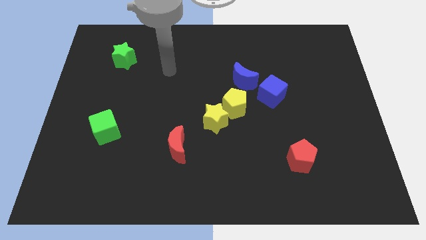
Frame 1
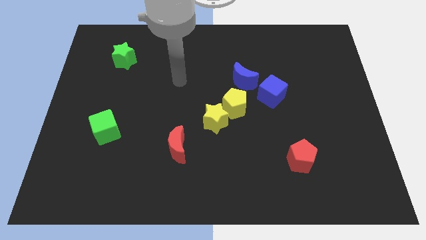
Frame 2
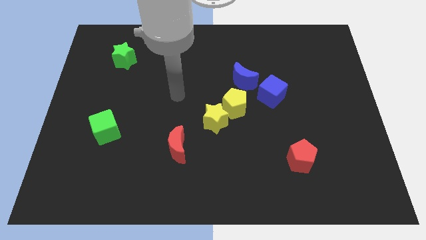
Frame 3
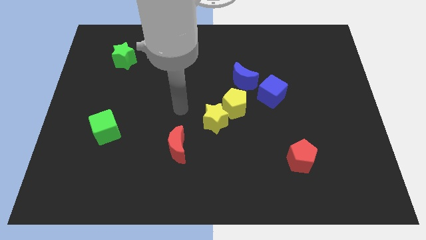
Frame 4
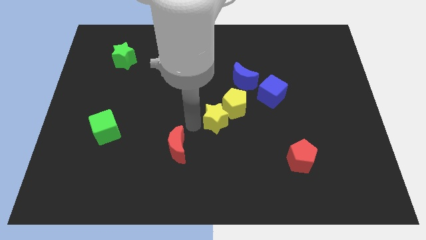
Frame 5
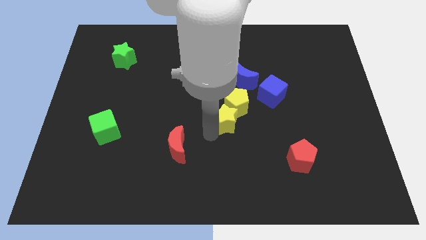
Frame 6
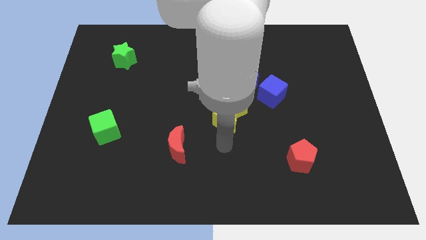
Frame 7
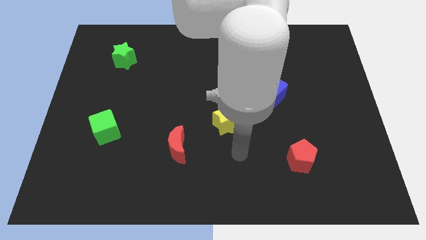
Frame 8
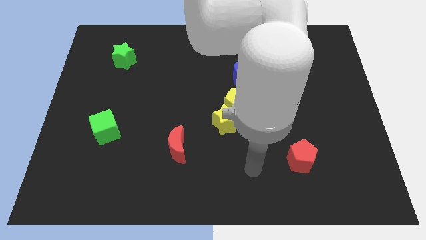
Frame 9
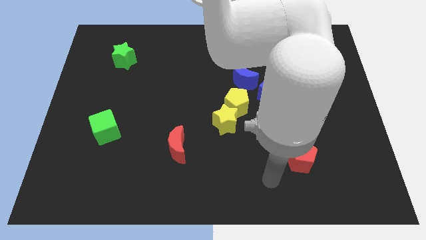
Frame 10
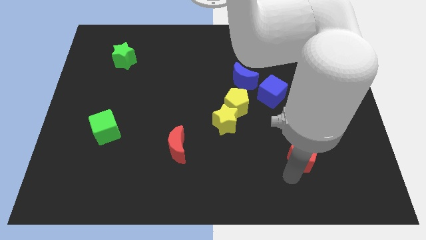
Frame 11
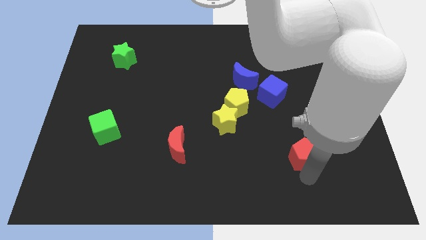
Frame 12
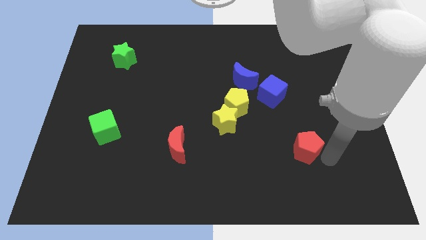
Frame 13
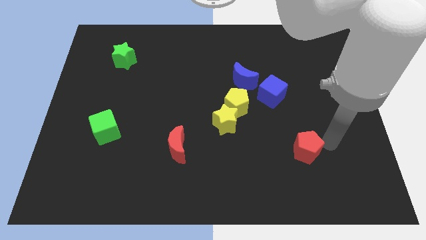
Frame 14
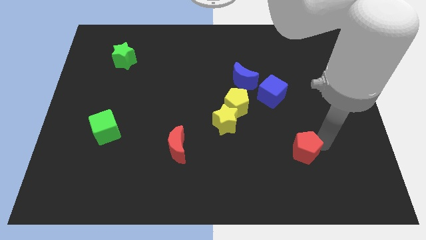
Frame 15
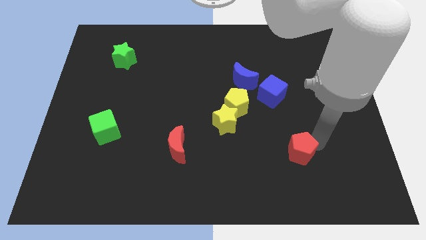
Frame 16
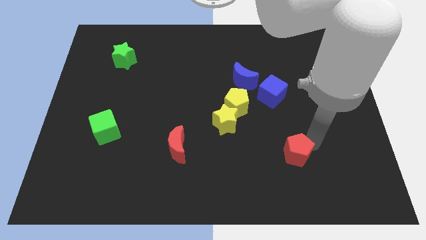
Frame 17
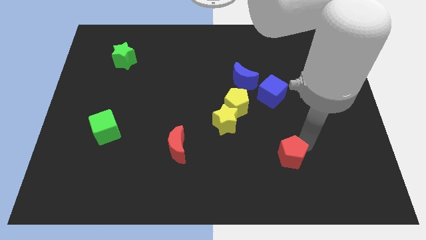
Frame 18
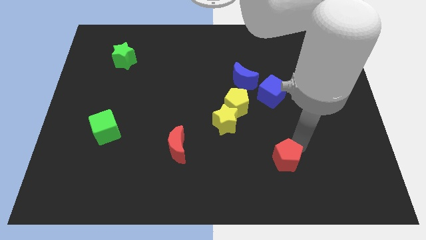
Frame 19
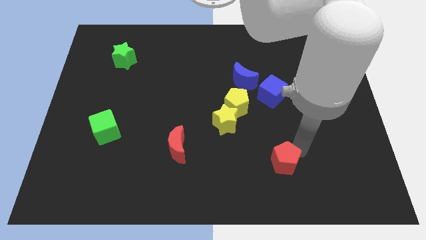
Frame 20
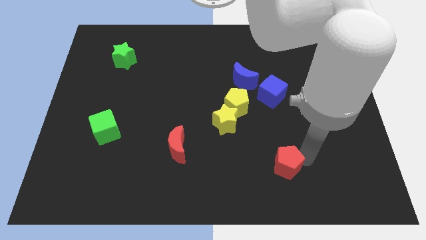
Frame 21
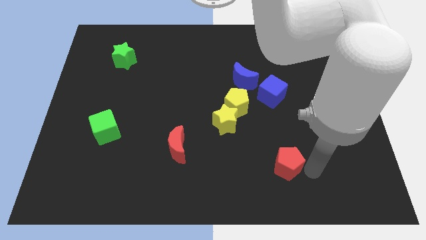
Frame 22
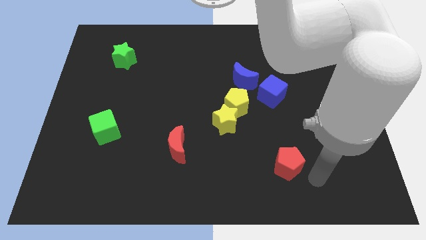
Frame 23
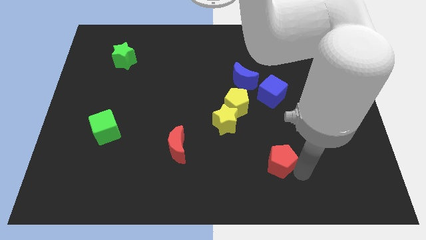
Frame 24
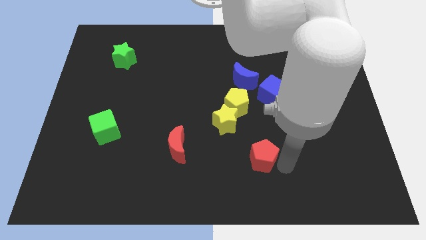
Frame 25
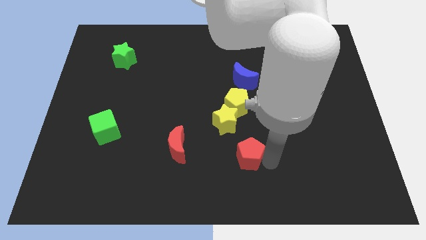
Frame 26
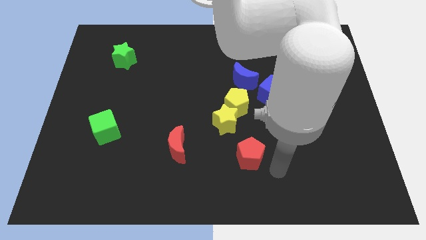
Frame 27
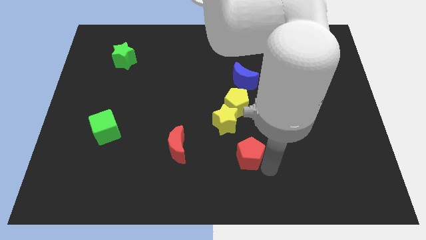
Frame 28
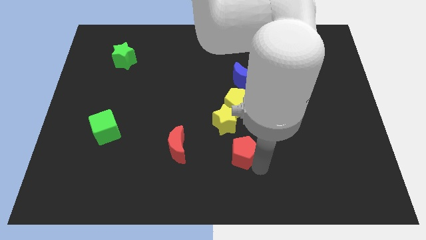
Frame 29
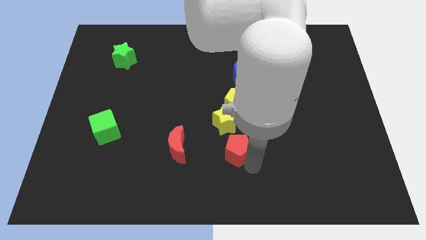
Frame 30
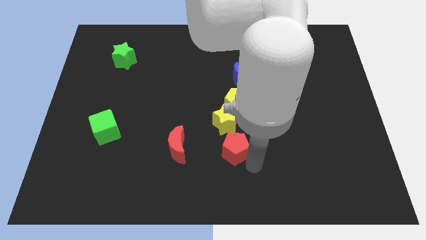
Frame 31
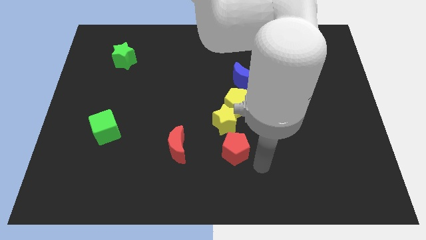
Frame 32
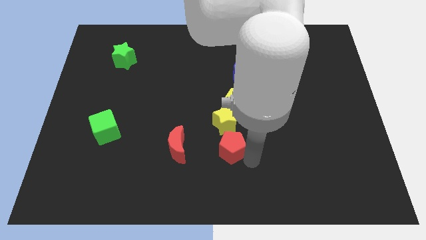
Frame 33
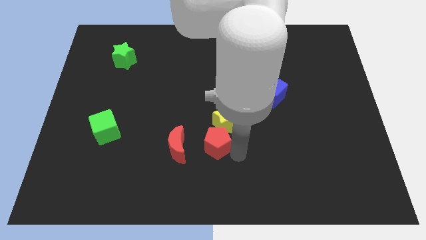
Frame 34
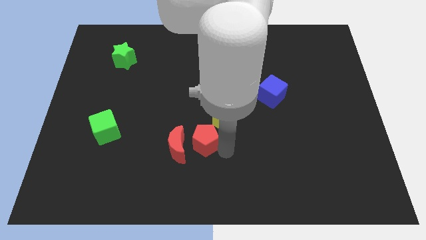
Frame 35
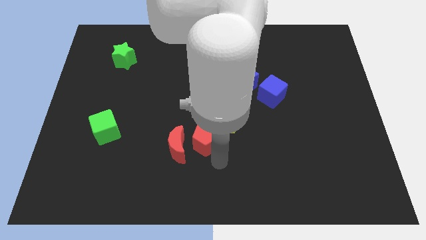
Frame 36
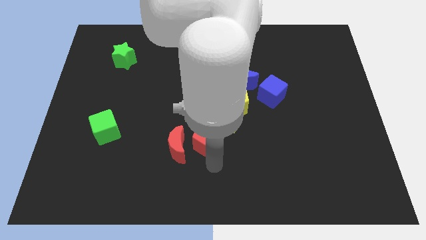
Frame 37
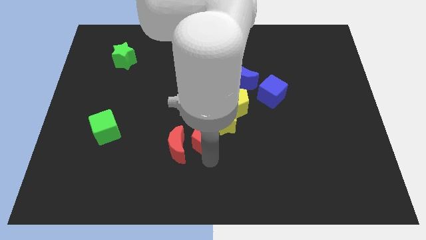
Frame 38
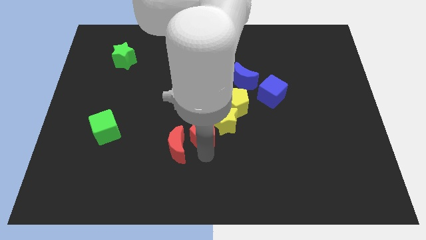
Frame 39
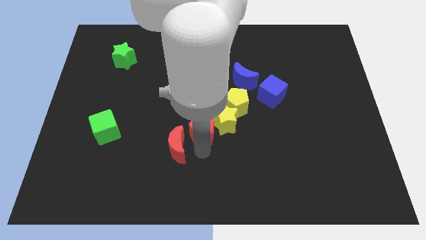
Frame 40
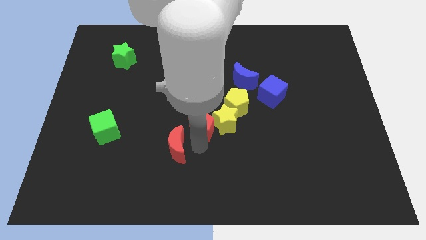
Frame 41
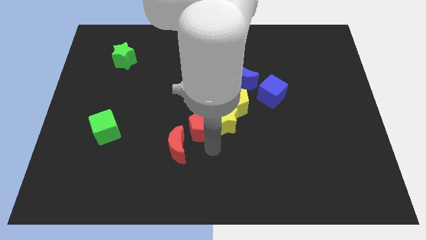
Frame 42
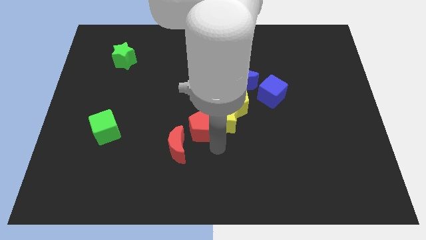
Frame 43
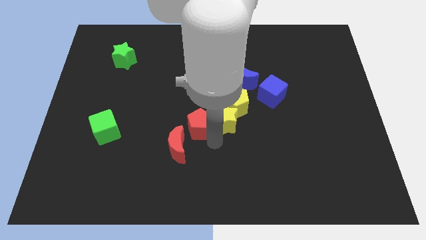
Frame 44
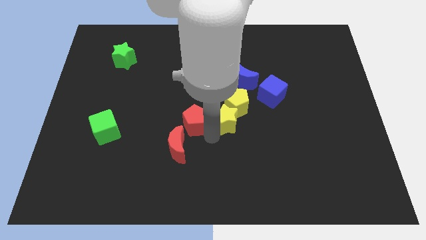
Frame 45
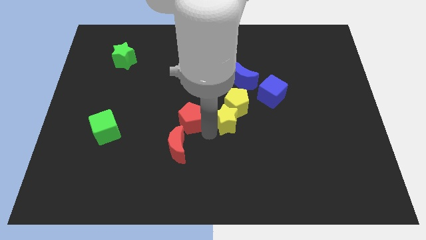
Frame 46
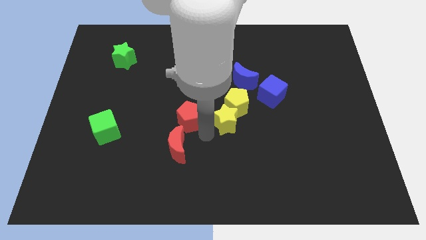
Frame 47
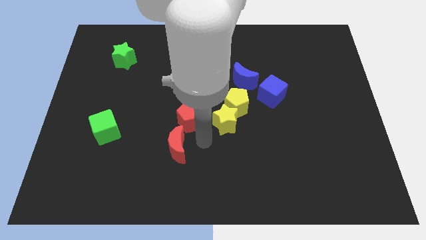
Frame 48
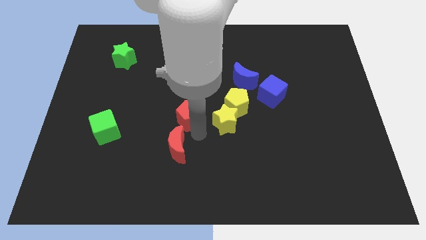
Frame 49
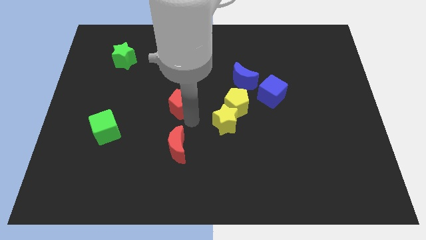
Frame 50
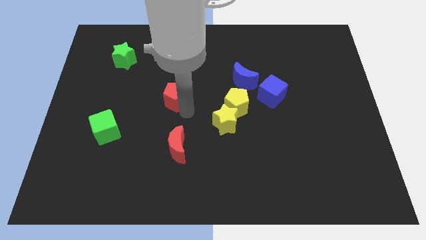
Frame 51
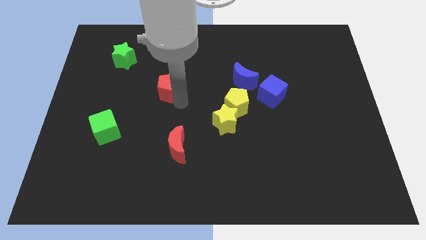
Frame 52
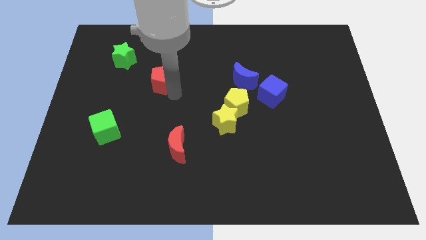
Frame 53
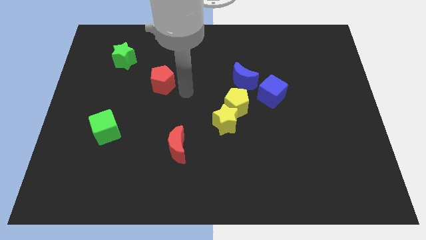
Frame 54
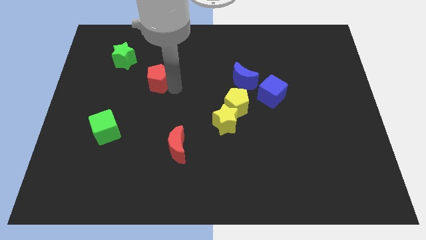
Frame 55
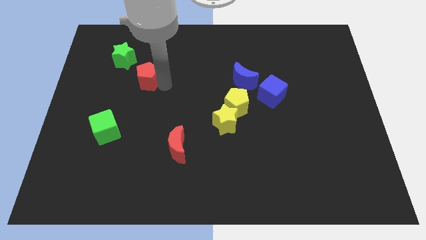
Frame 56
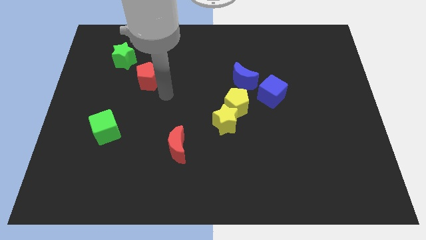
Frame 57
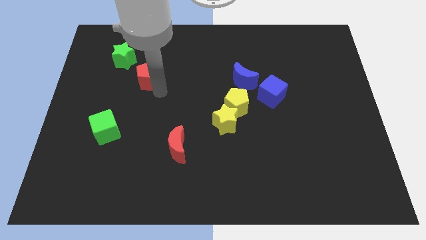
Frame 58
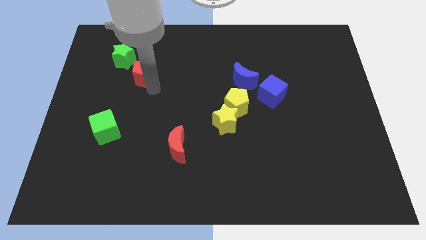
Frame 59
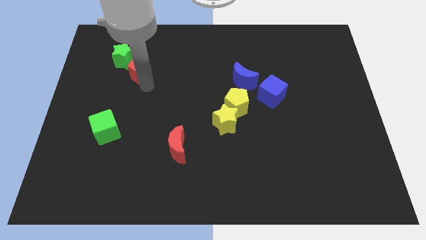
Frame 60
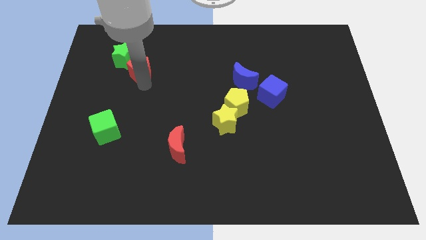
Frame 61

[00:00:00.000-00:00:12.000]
move the red pentagon close to the green star

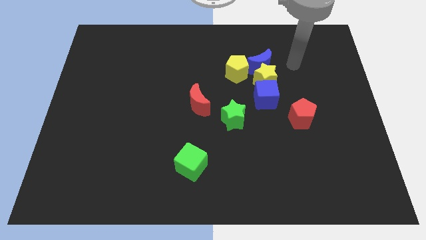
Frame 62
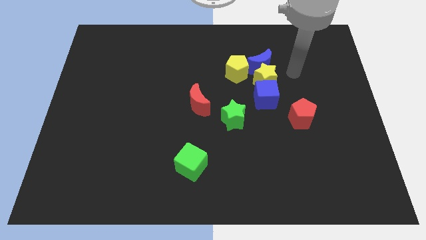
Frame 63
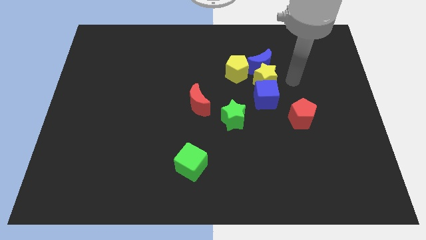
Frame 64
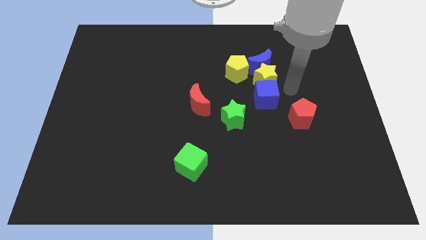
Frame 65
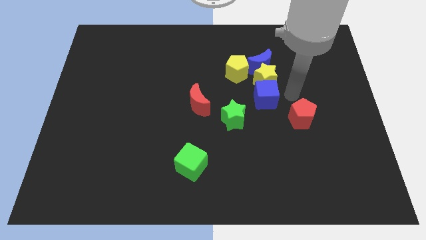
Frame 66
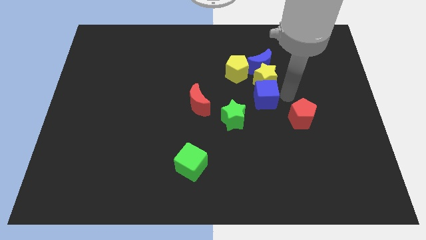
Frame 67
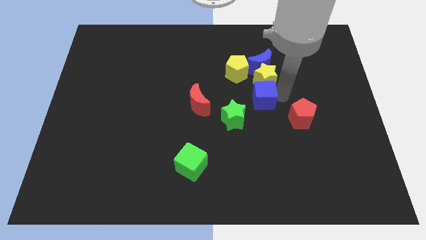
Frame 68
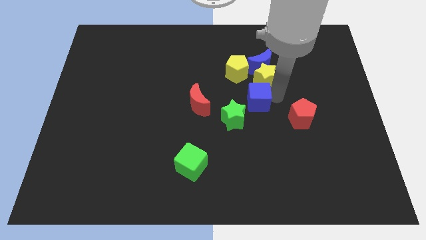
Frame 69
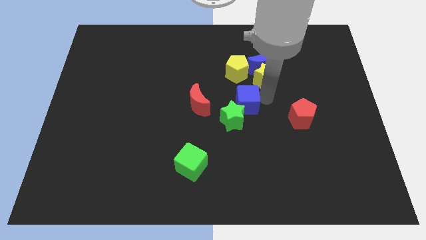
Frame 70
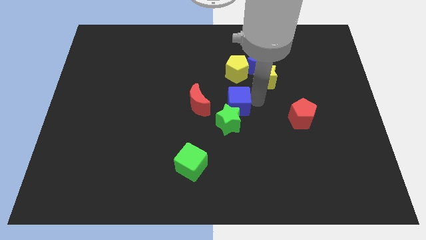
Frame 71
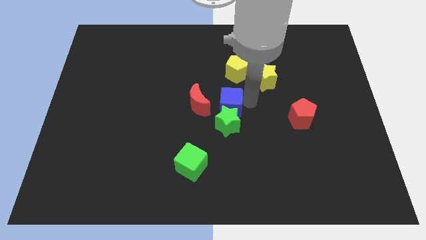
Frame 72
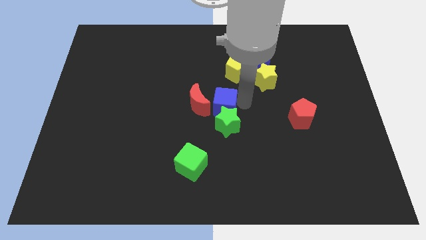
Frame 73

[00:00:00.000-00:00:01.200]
slide the blue cube next to the red moon
